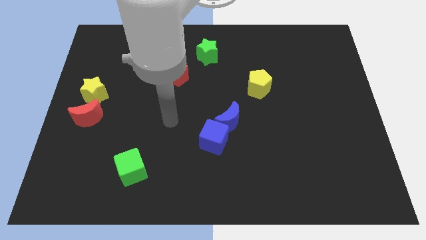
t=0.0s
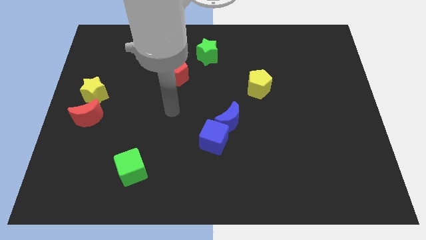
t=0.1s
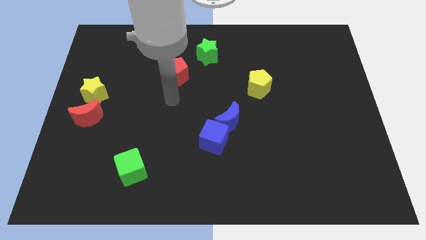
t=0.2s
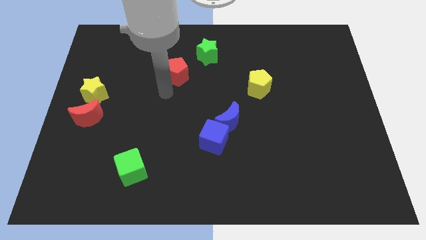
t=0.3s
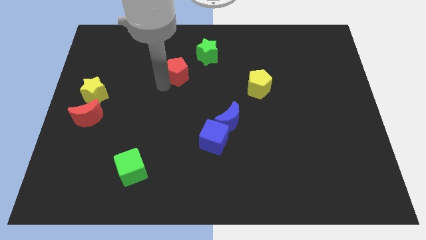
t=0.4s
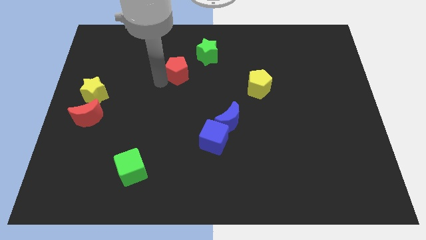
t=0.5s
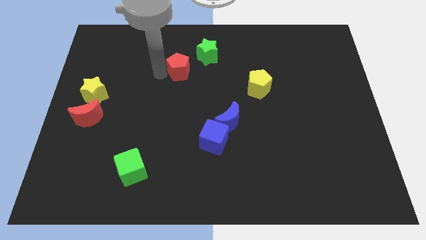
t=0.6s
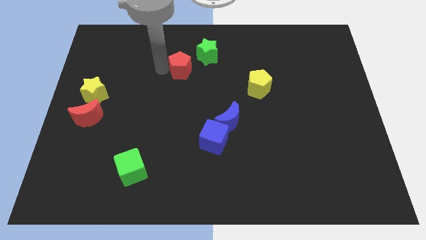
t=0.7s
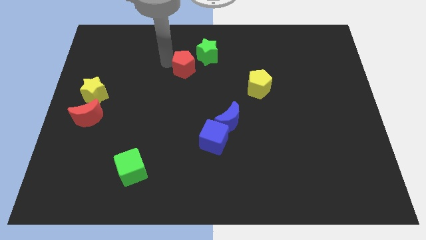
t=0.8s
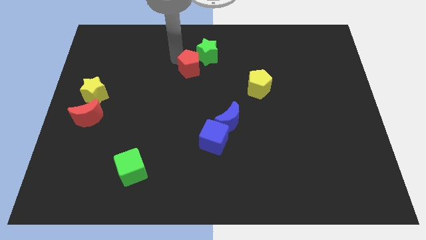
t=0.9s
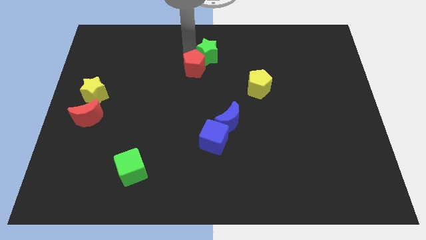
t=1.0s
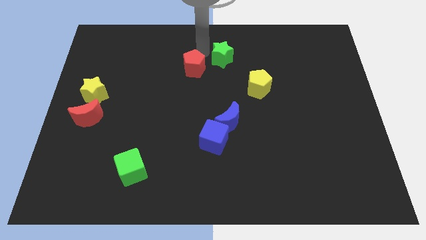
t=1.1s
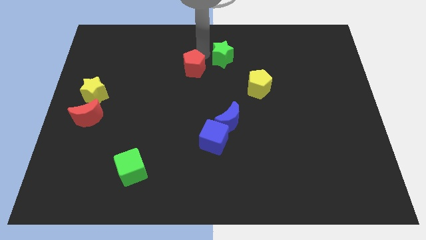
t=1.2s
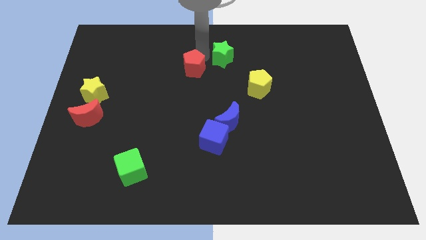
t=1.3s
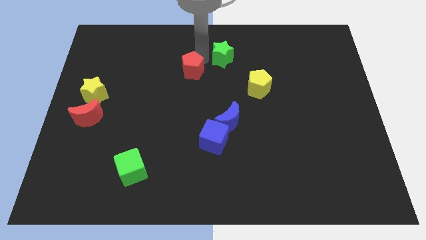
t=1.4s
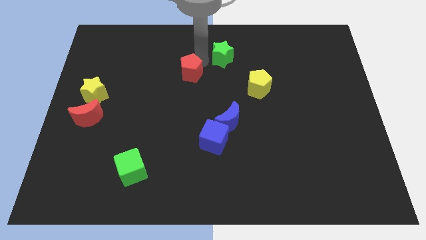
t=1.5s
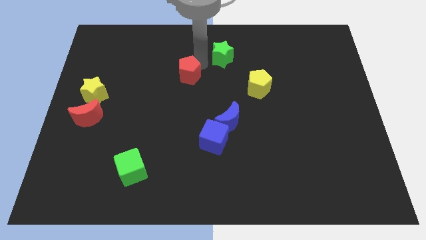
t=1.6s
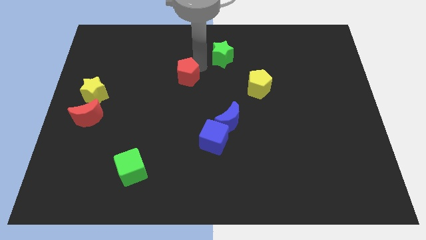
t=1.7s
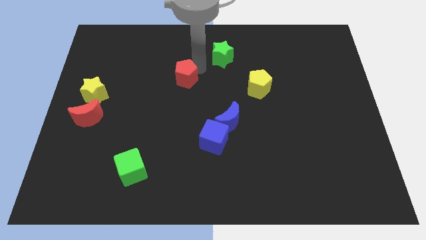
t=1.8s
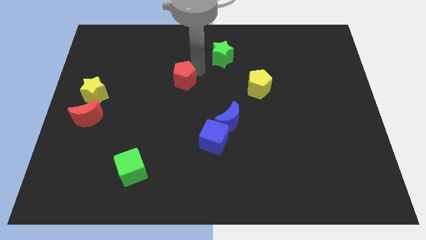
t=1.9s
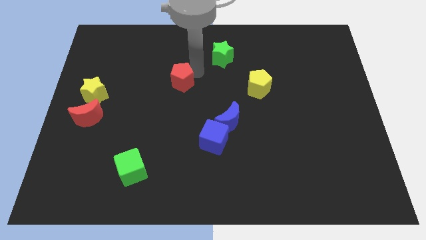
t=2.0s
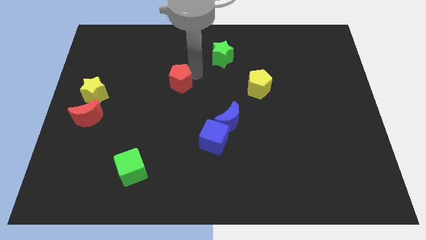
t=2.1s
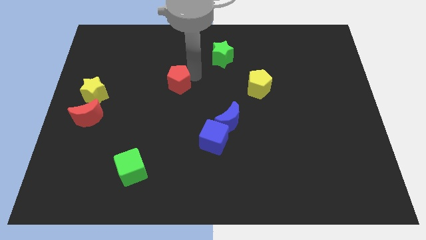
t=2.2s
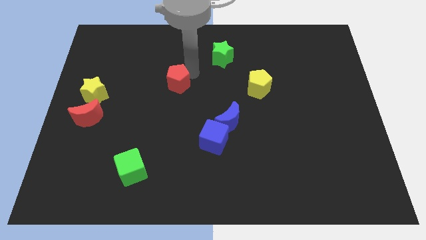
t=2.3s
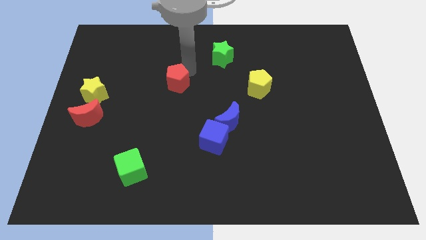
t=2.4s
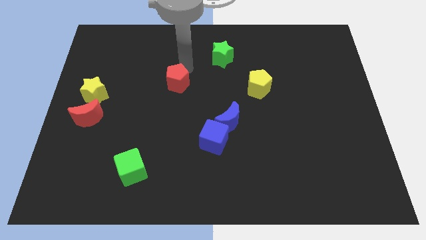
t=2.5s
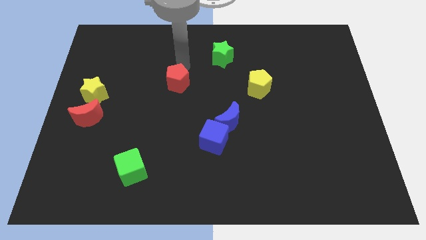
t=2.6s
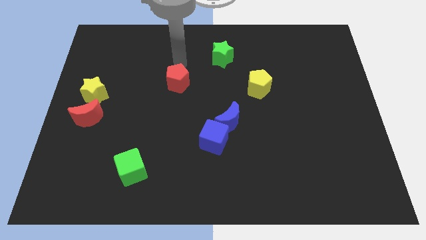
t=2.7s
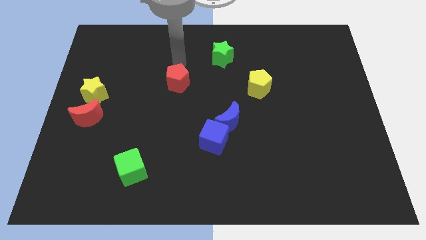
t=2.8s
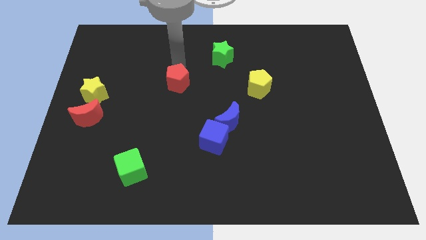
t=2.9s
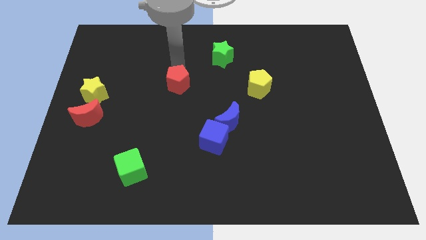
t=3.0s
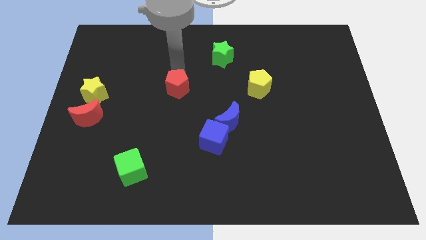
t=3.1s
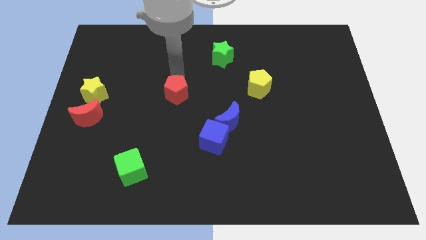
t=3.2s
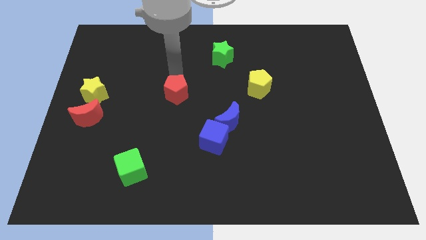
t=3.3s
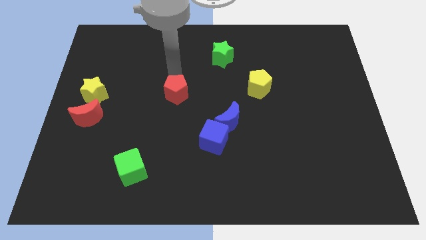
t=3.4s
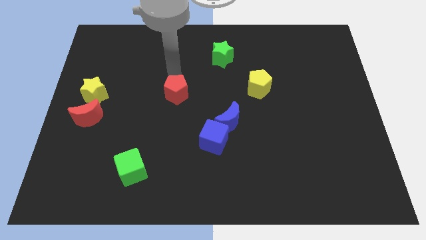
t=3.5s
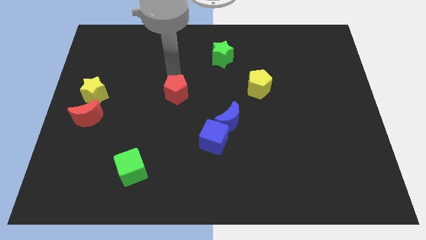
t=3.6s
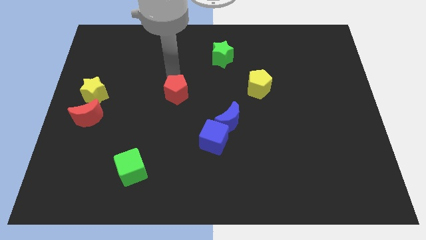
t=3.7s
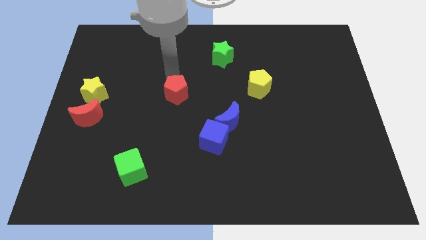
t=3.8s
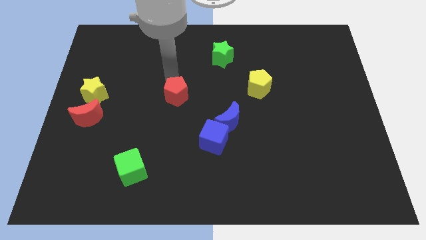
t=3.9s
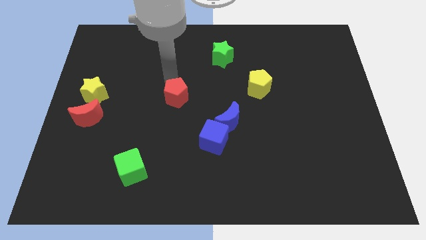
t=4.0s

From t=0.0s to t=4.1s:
push the red pentagon downwards somewhat

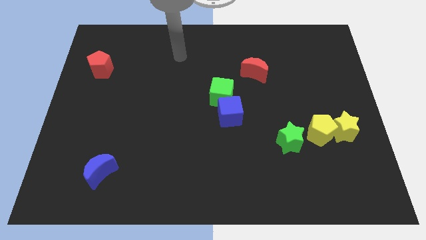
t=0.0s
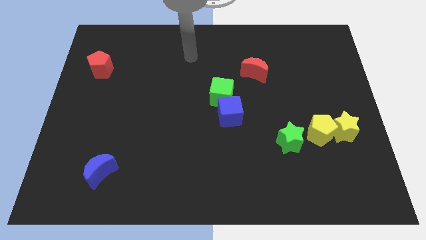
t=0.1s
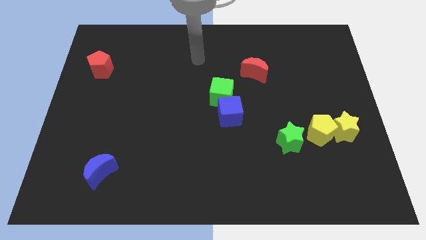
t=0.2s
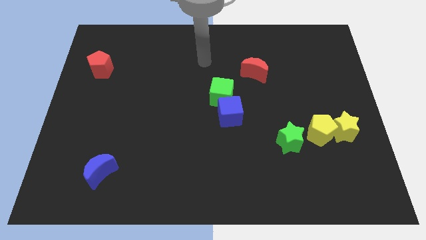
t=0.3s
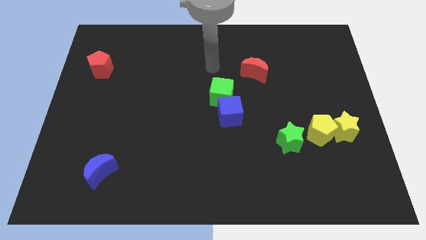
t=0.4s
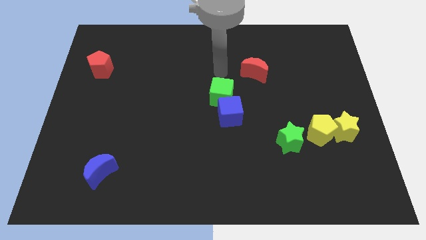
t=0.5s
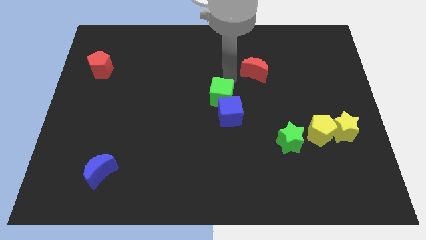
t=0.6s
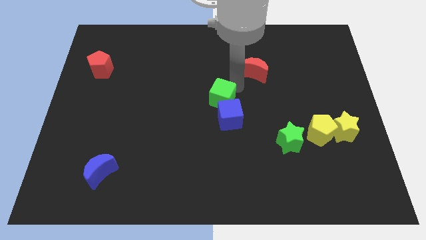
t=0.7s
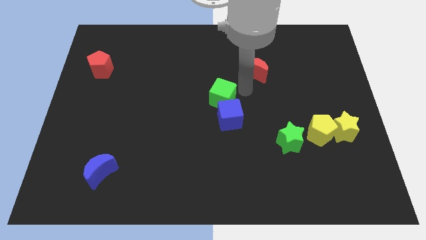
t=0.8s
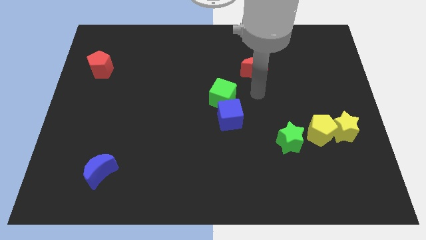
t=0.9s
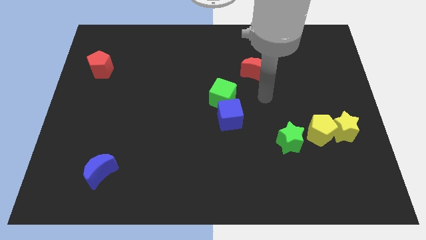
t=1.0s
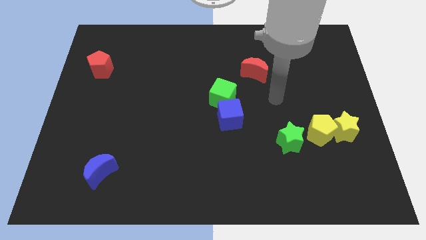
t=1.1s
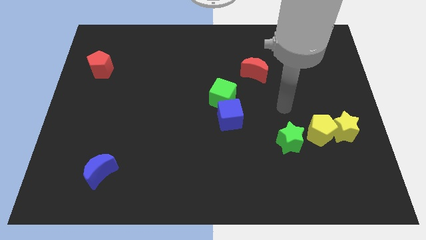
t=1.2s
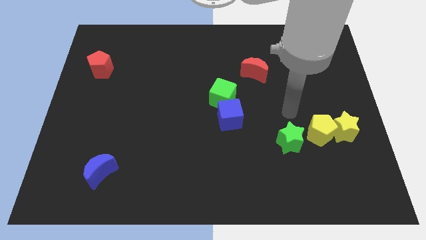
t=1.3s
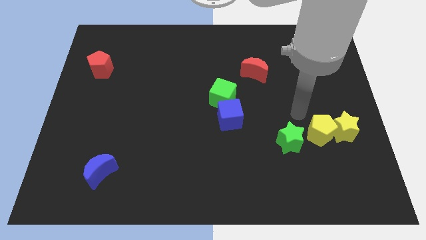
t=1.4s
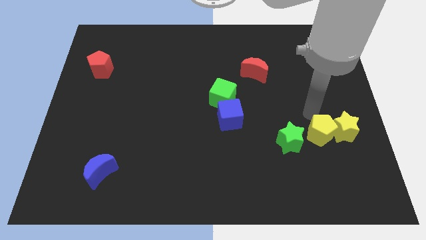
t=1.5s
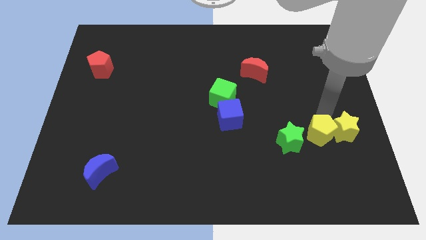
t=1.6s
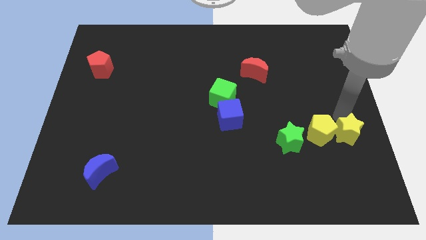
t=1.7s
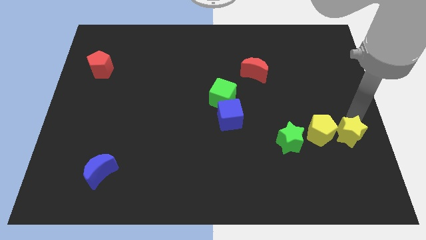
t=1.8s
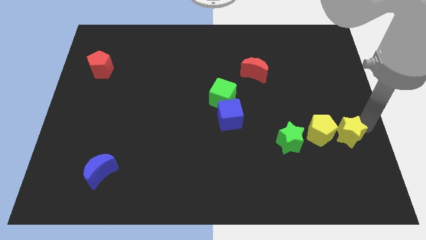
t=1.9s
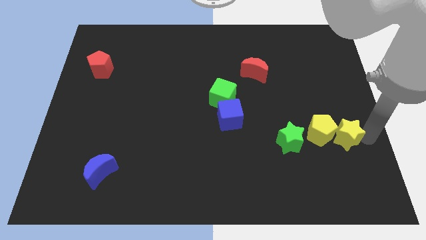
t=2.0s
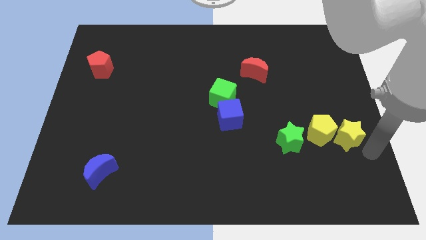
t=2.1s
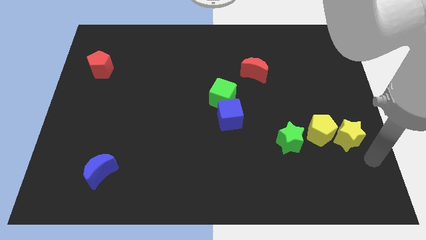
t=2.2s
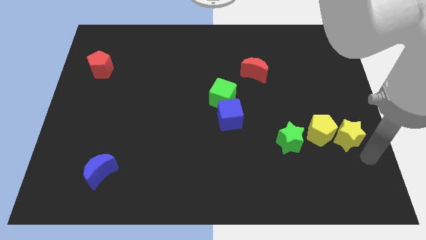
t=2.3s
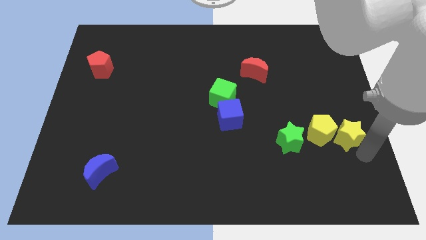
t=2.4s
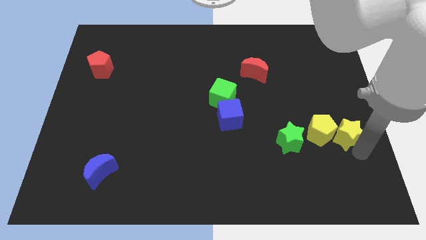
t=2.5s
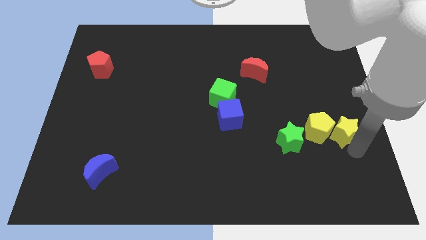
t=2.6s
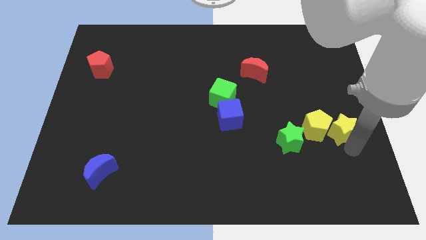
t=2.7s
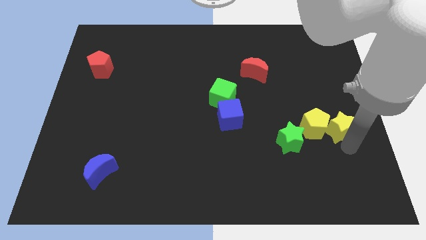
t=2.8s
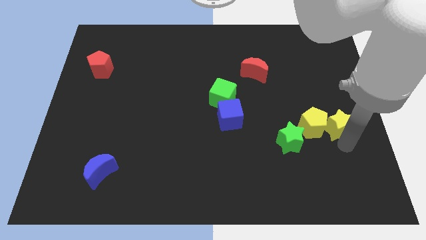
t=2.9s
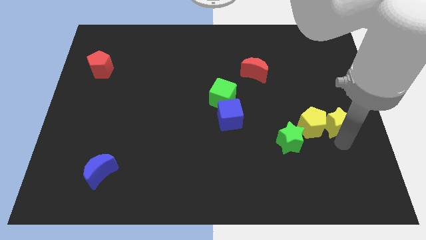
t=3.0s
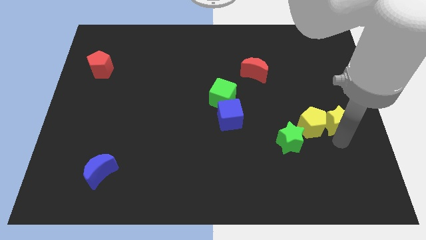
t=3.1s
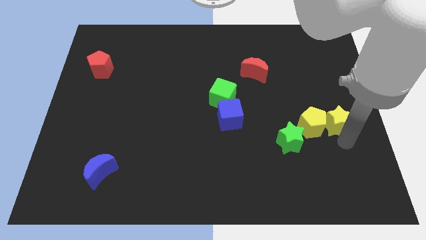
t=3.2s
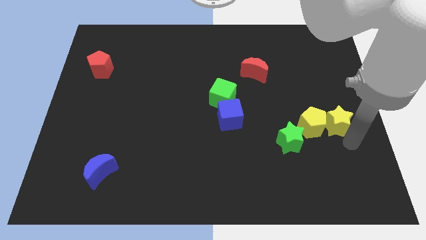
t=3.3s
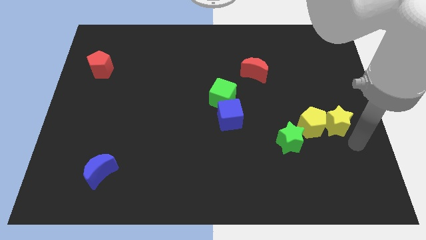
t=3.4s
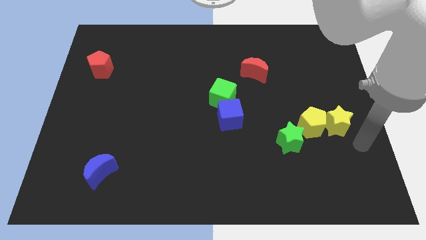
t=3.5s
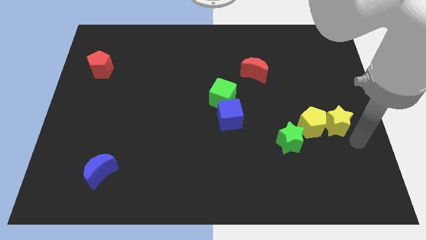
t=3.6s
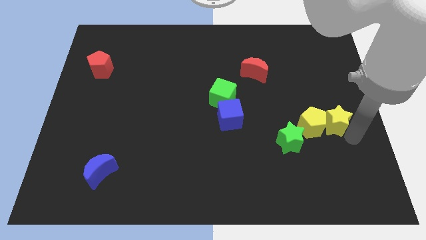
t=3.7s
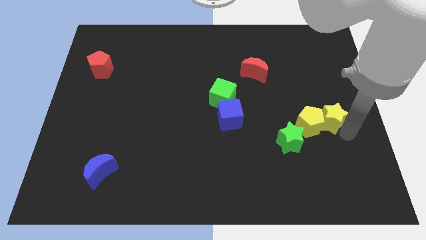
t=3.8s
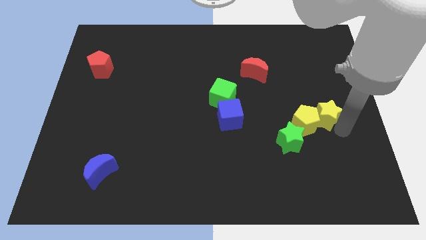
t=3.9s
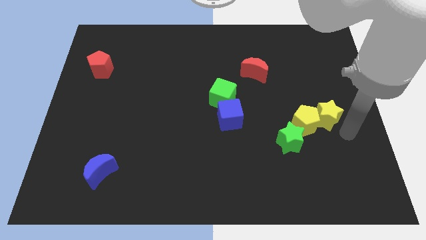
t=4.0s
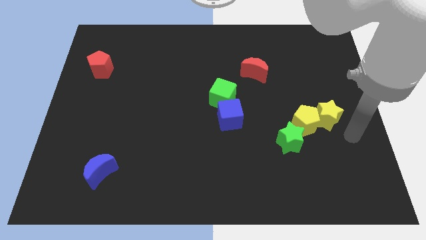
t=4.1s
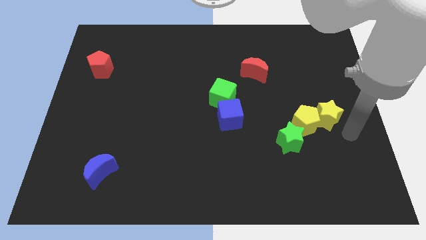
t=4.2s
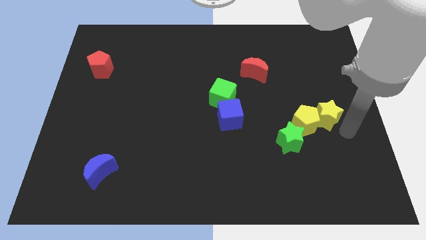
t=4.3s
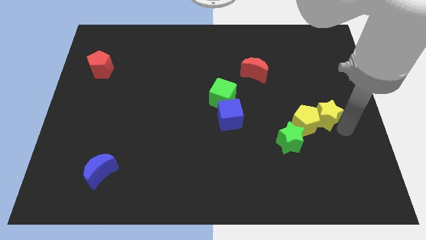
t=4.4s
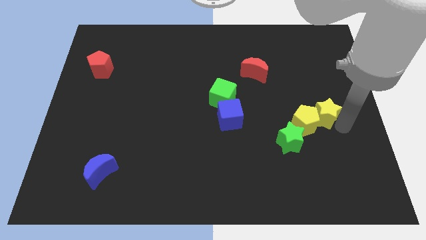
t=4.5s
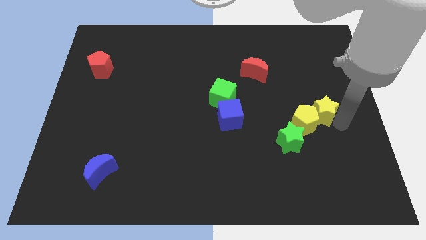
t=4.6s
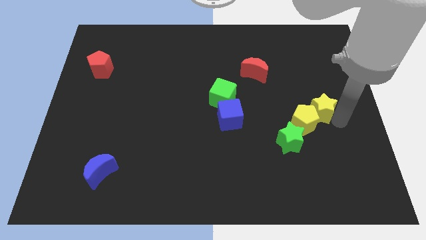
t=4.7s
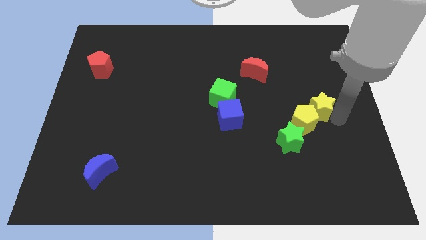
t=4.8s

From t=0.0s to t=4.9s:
slightly push the yellow star diagonally upwards and to the left
